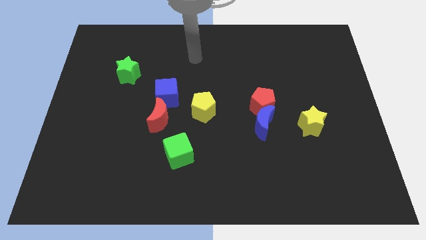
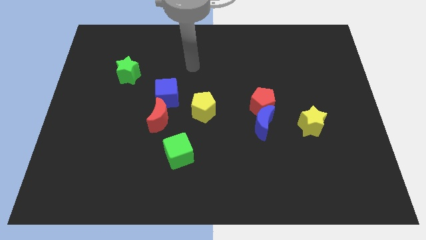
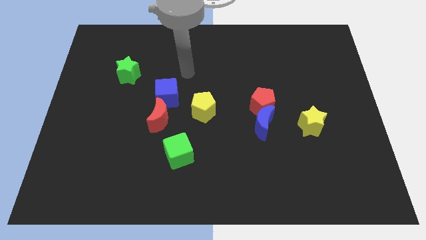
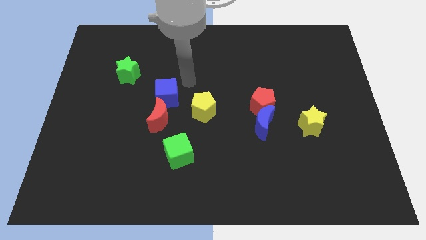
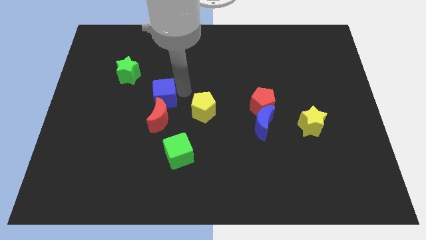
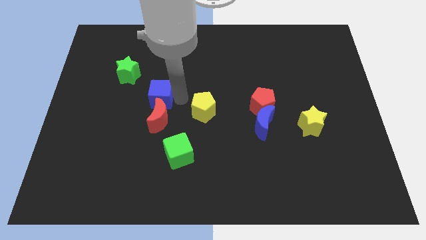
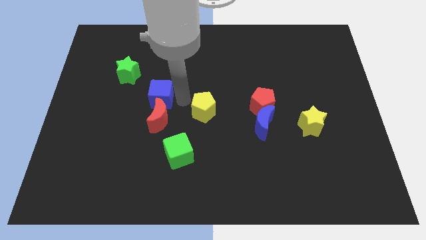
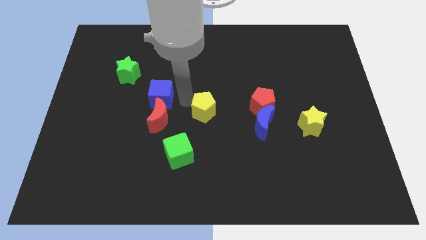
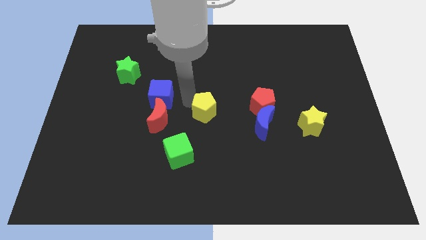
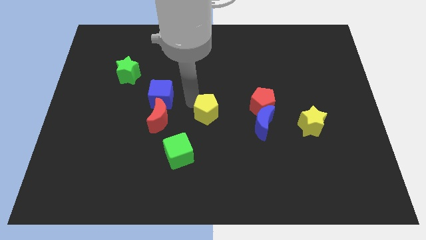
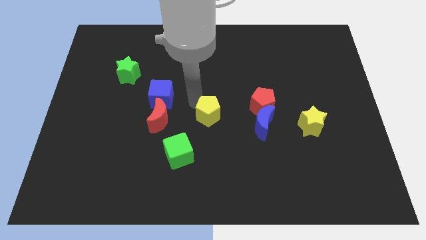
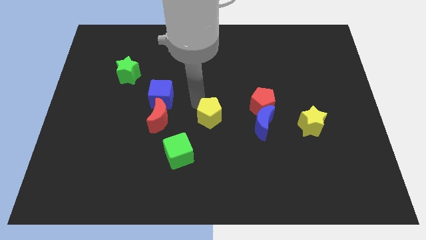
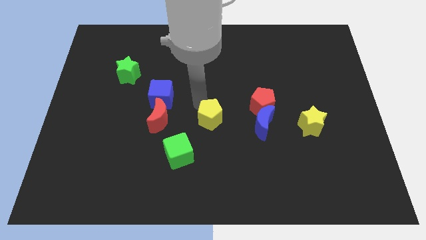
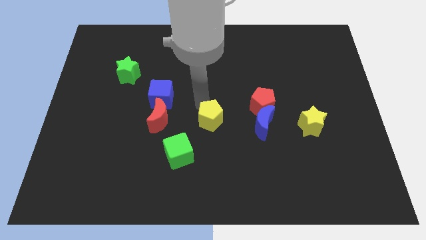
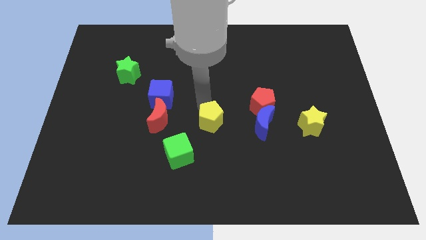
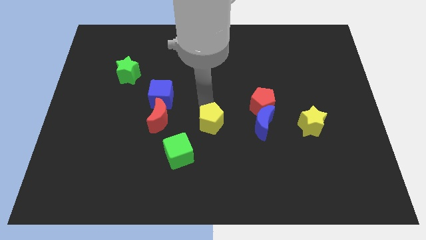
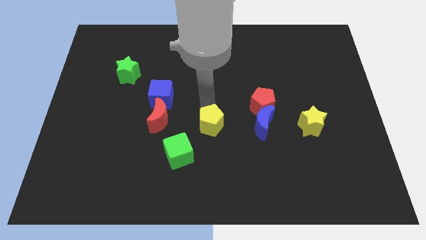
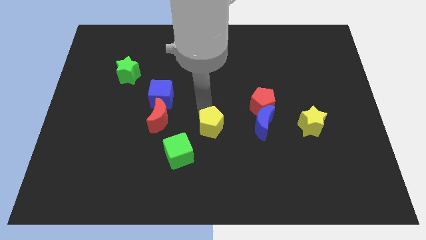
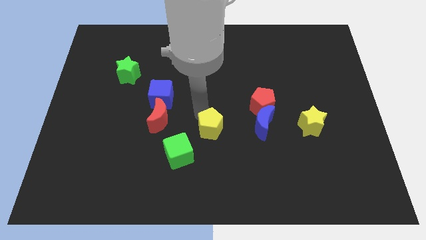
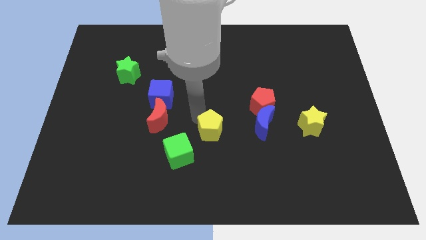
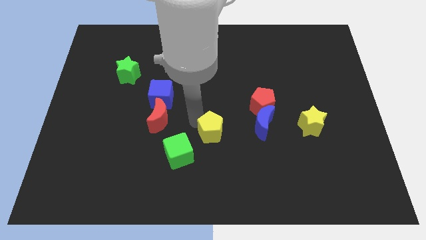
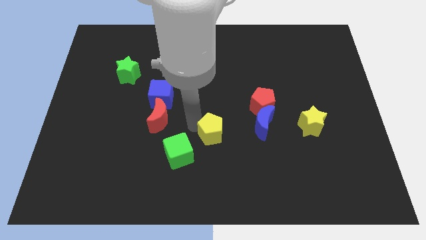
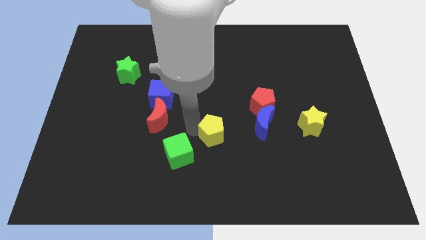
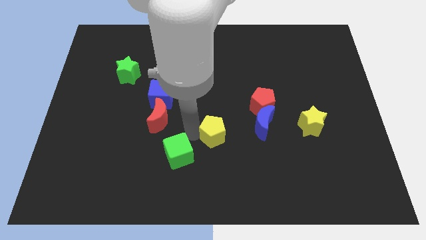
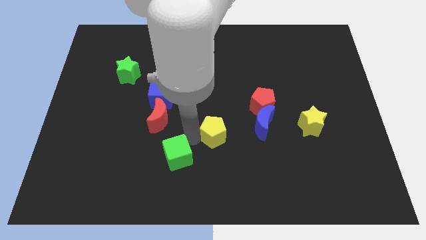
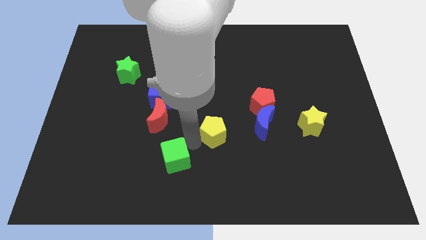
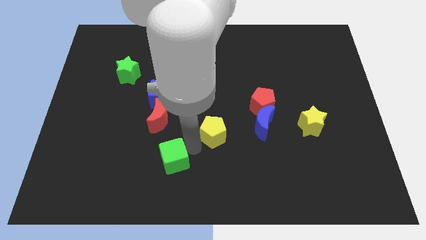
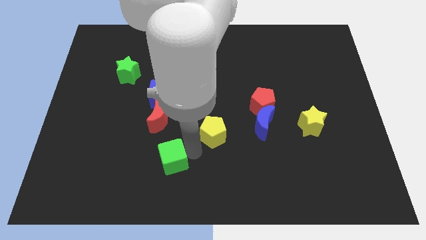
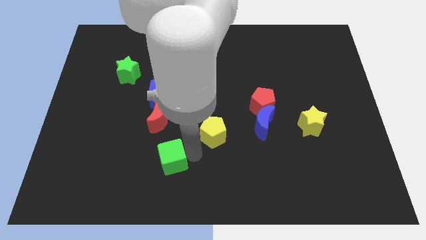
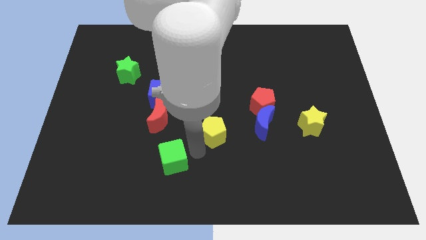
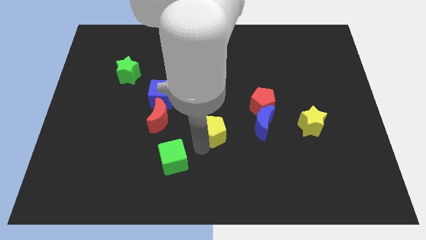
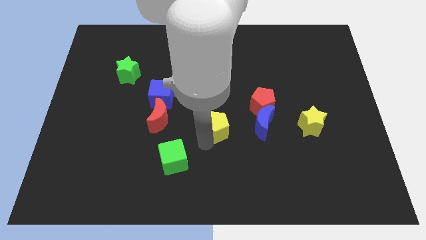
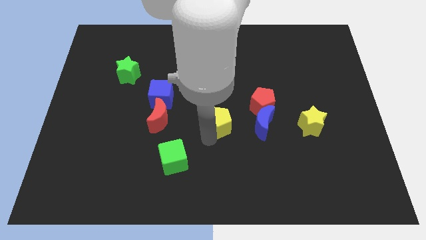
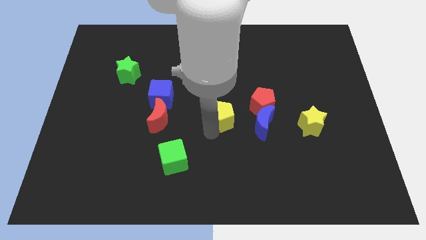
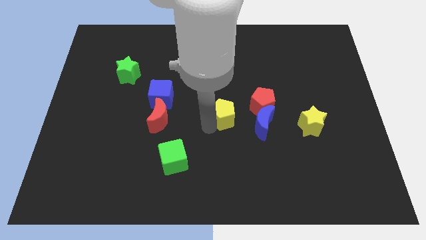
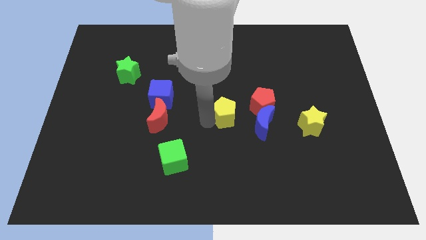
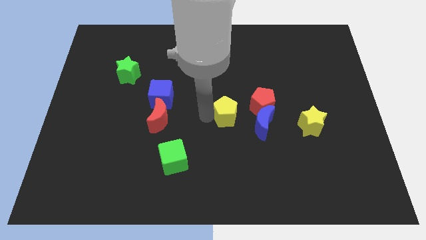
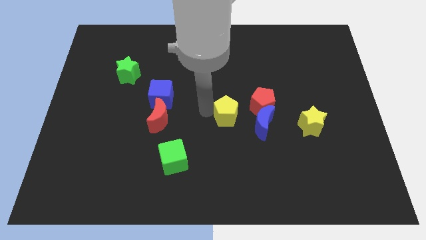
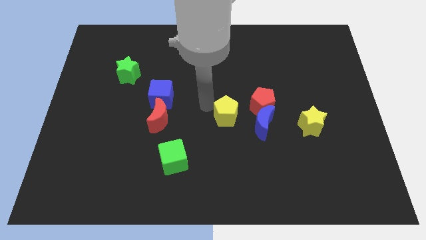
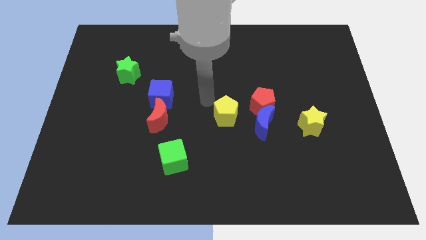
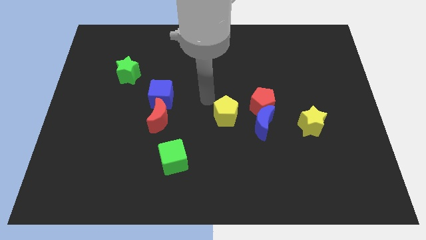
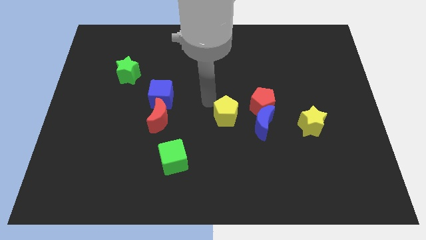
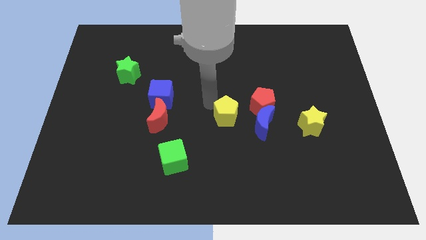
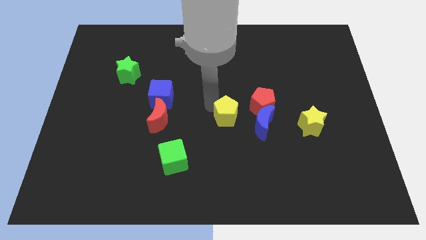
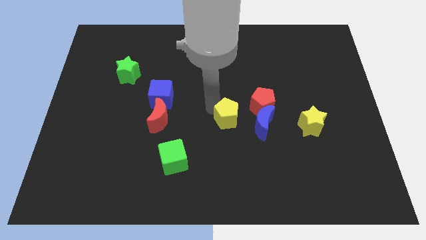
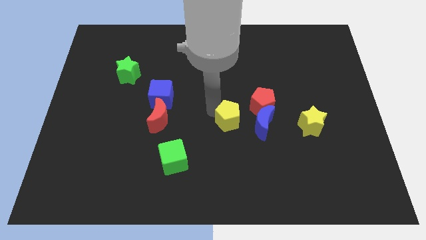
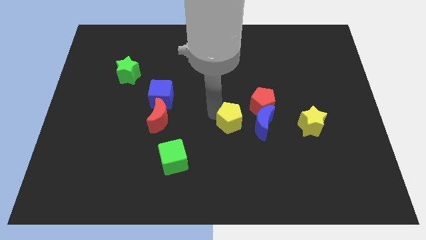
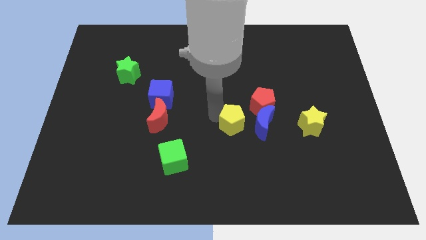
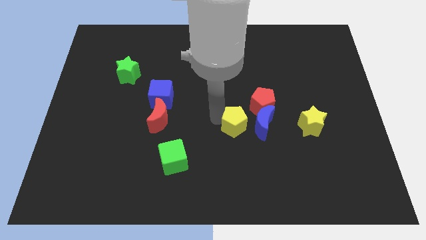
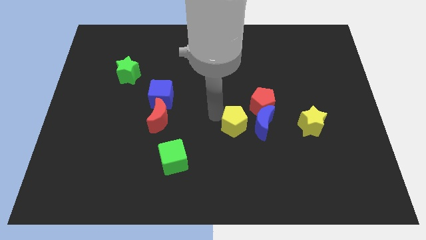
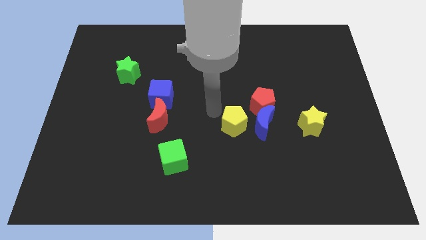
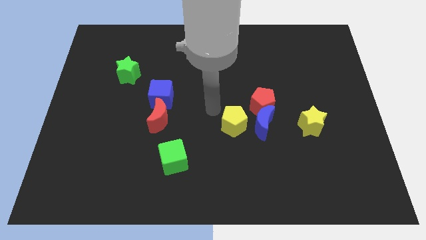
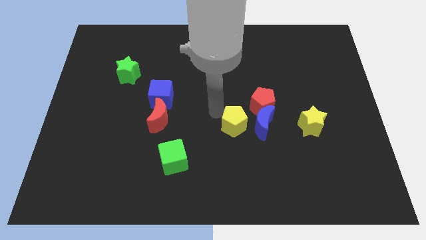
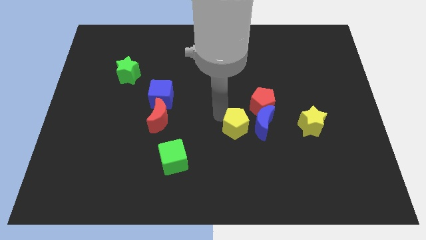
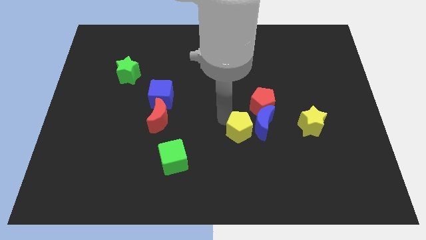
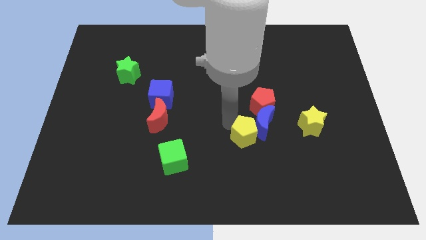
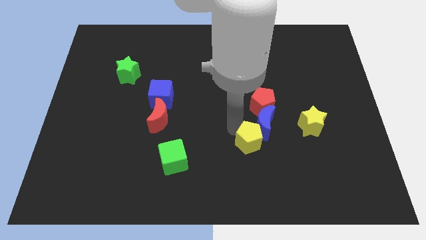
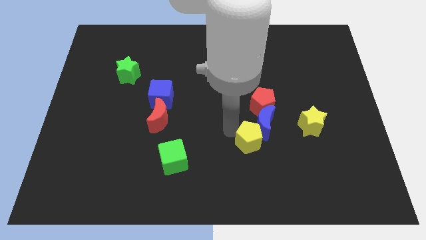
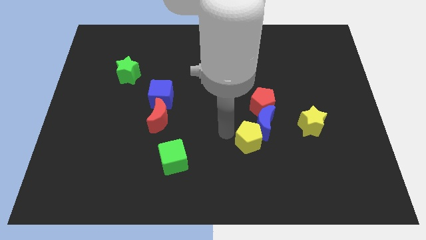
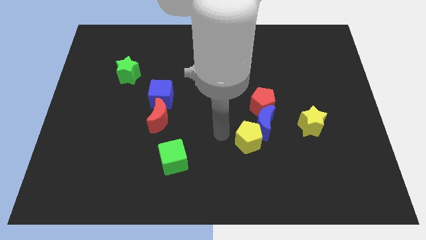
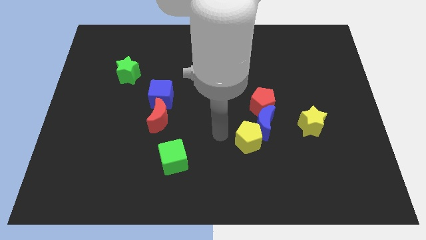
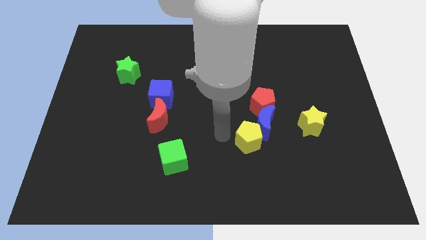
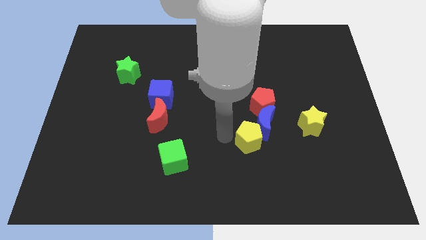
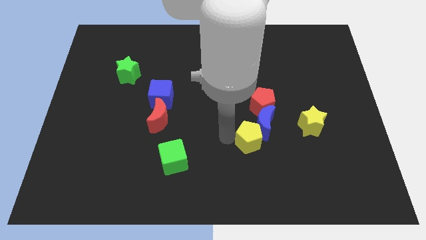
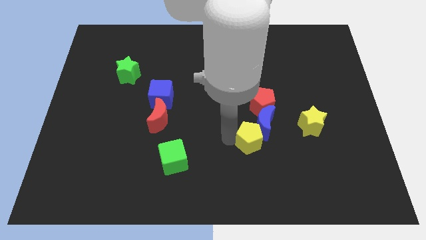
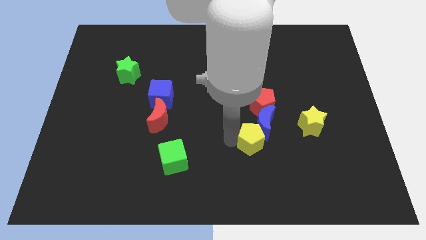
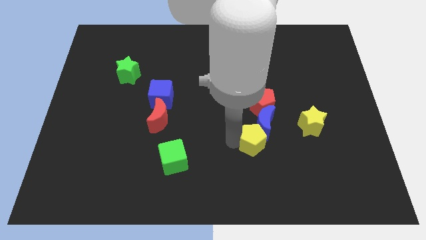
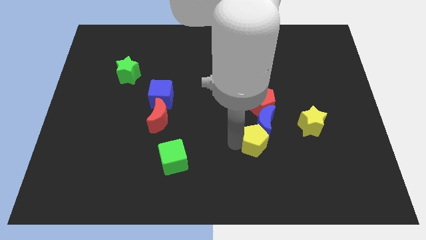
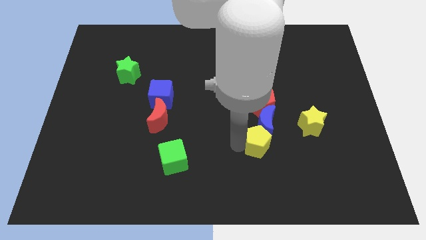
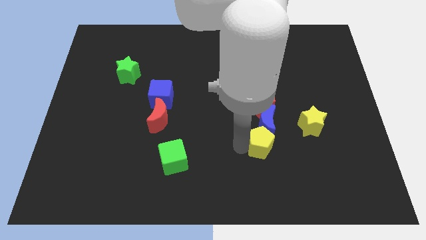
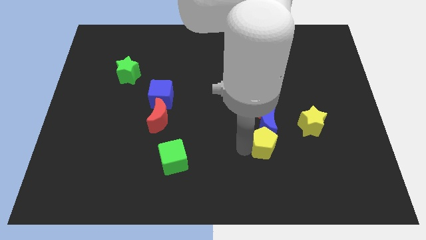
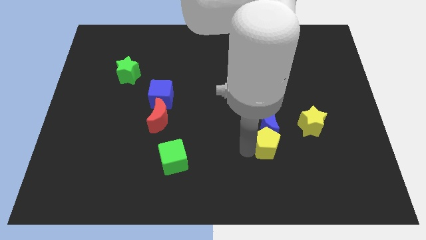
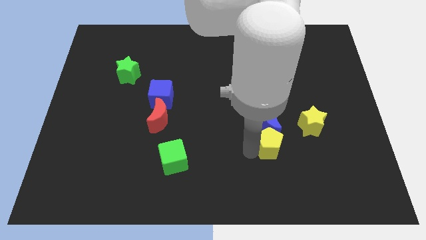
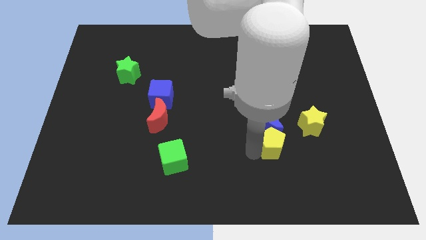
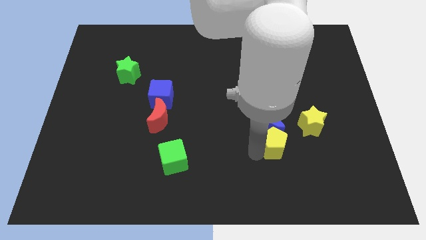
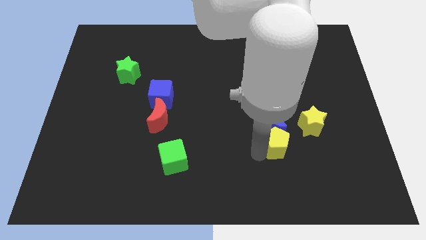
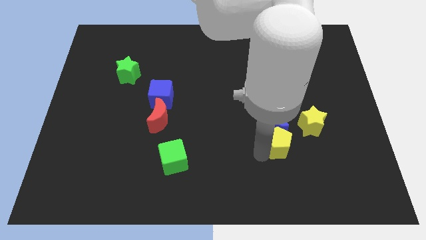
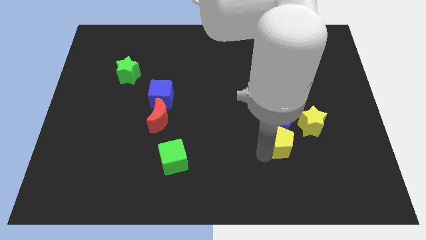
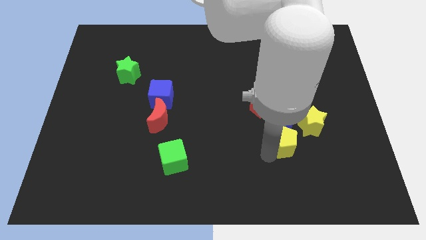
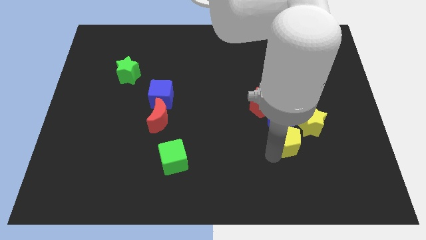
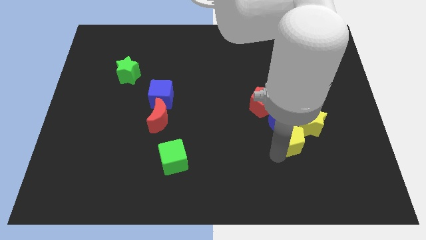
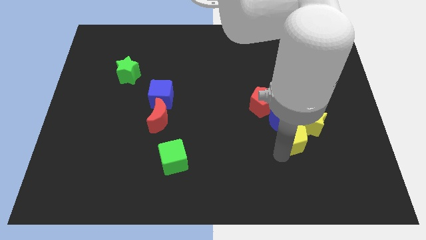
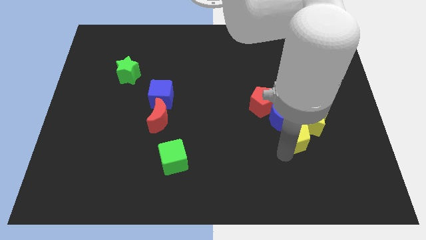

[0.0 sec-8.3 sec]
put the yellow pentagon towards the yellow star
